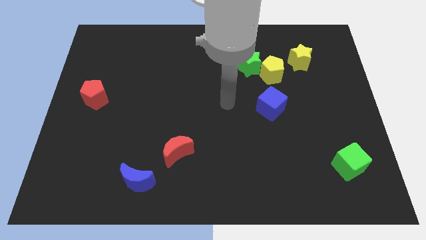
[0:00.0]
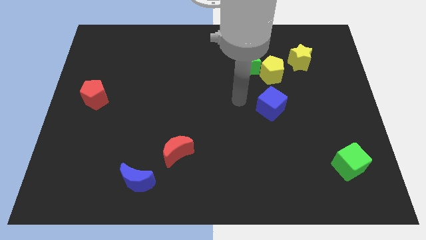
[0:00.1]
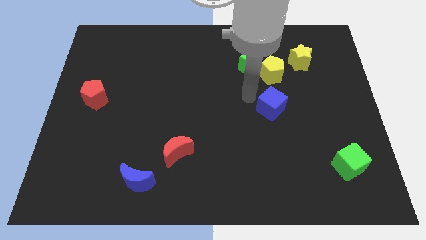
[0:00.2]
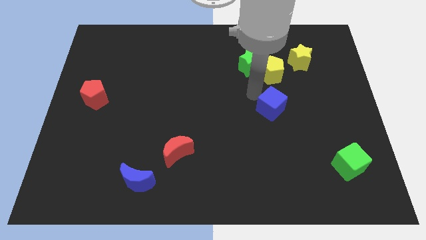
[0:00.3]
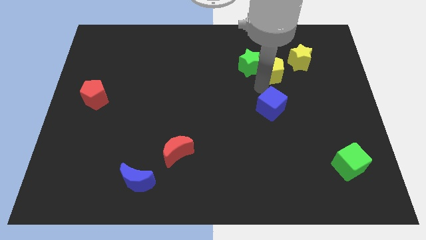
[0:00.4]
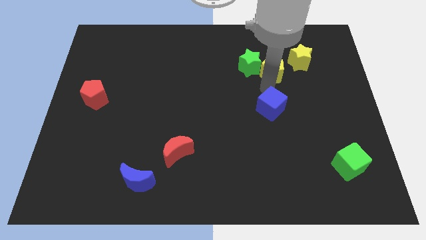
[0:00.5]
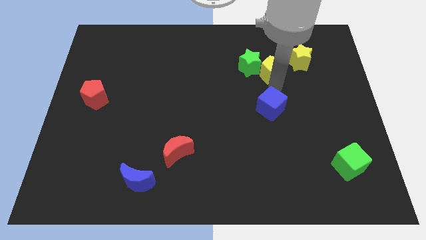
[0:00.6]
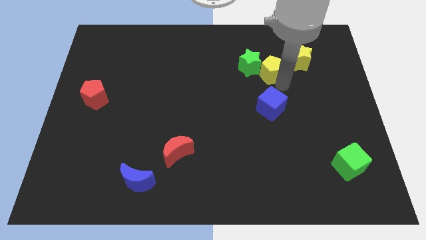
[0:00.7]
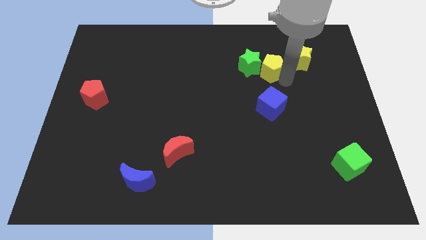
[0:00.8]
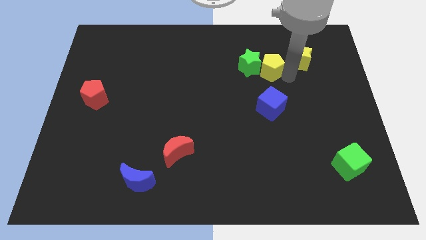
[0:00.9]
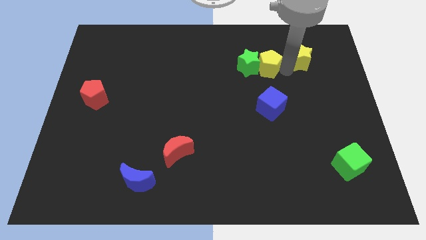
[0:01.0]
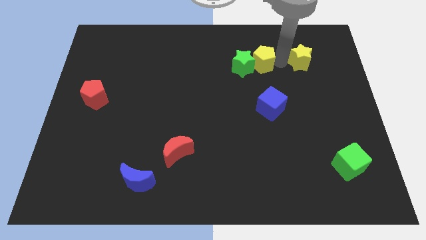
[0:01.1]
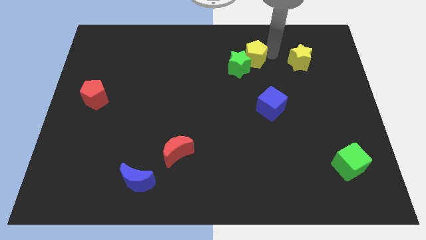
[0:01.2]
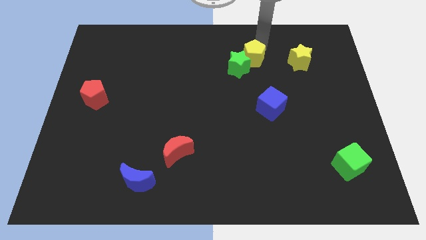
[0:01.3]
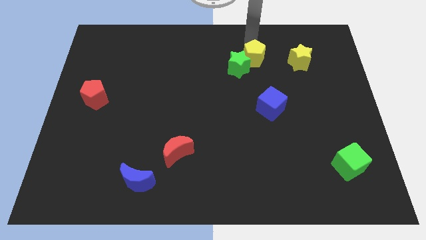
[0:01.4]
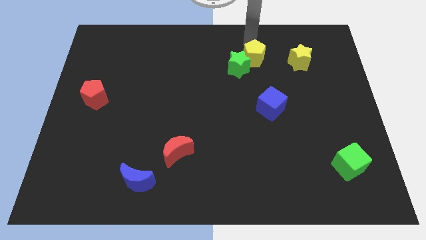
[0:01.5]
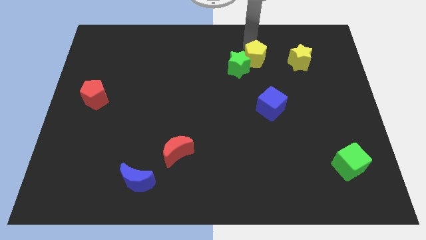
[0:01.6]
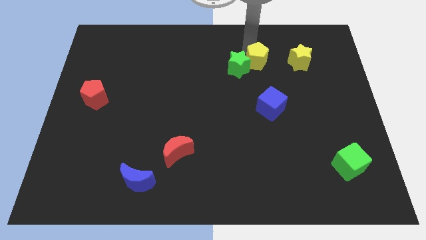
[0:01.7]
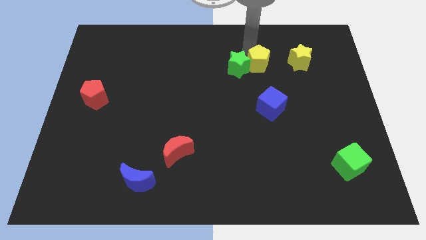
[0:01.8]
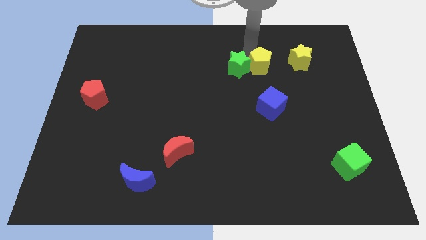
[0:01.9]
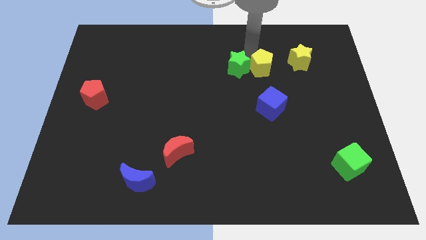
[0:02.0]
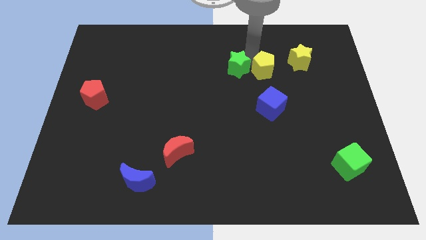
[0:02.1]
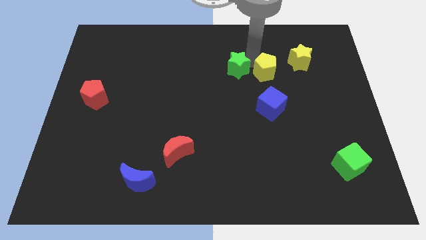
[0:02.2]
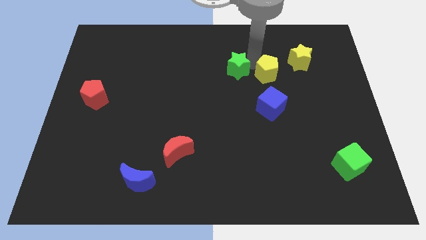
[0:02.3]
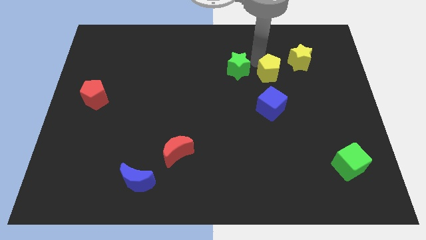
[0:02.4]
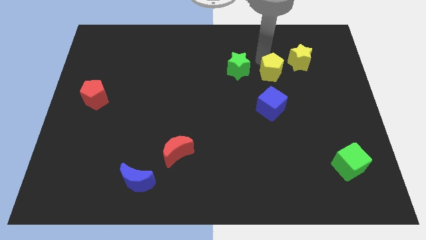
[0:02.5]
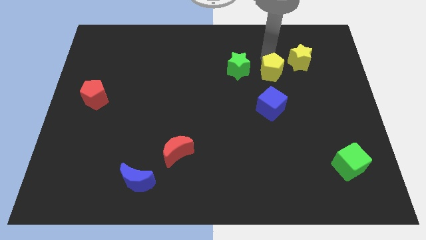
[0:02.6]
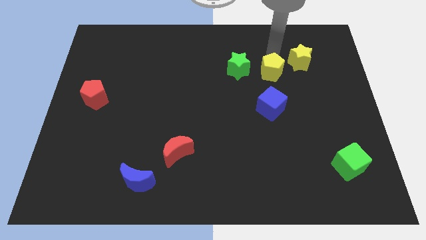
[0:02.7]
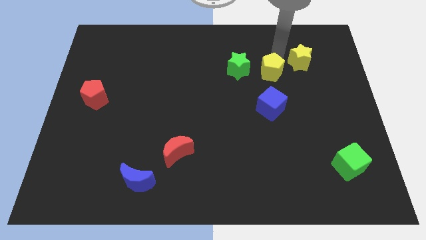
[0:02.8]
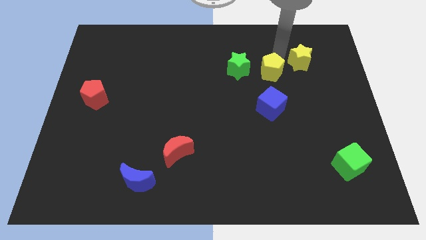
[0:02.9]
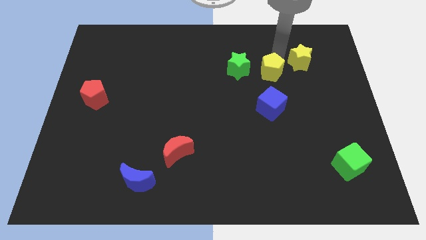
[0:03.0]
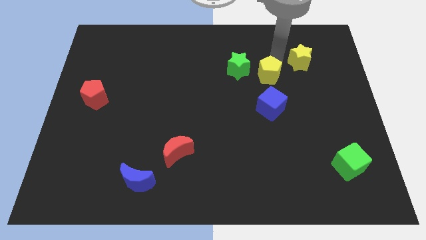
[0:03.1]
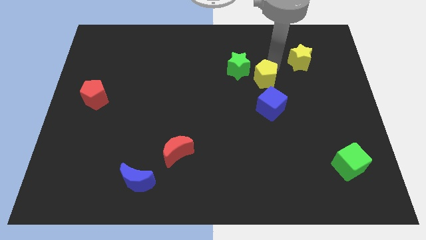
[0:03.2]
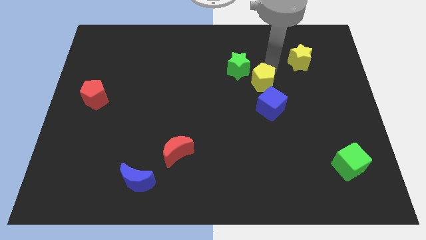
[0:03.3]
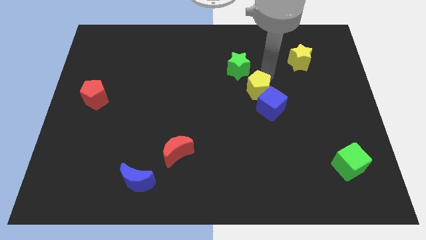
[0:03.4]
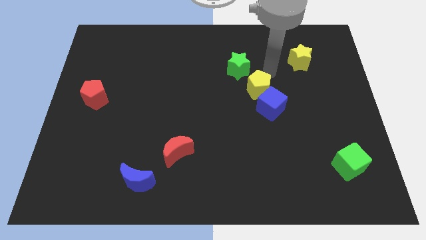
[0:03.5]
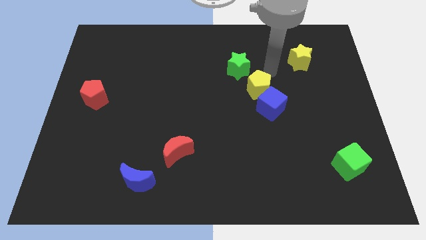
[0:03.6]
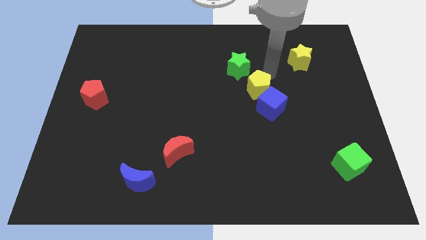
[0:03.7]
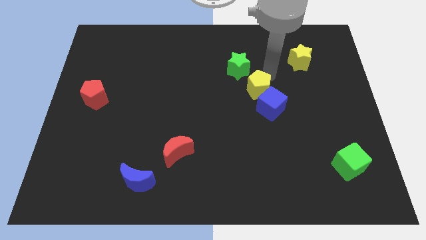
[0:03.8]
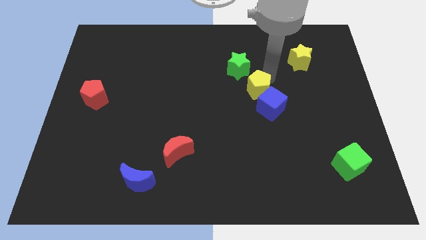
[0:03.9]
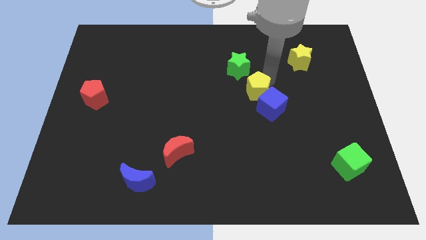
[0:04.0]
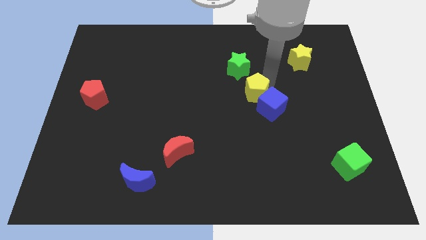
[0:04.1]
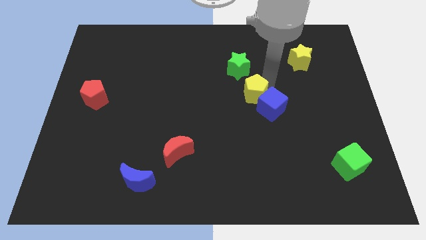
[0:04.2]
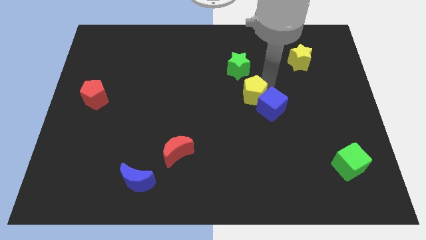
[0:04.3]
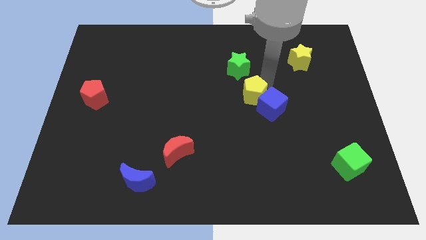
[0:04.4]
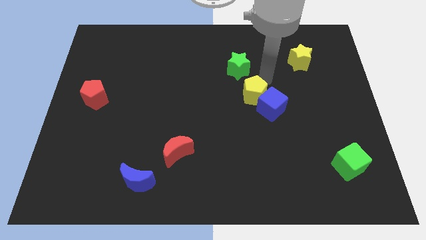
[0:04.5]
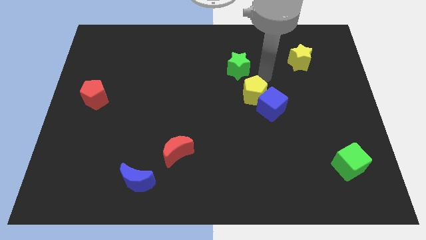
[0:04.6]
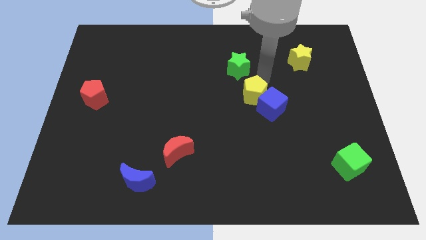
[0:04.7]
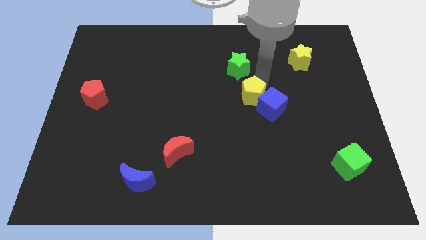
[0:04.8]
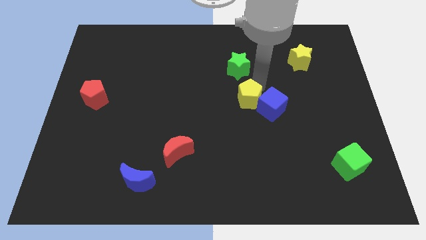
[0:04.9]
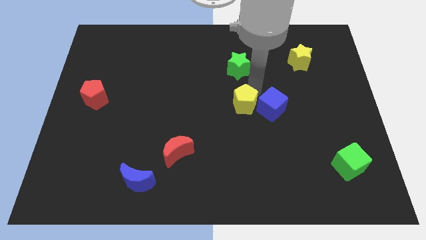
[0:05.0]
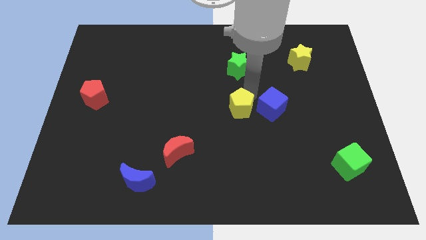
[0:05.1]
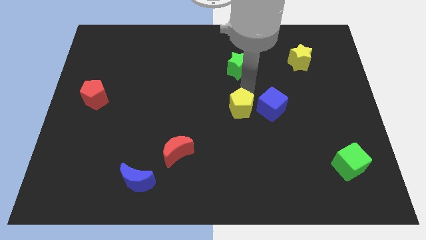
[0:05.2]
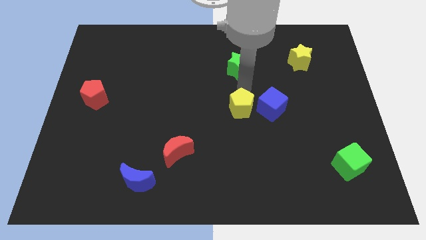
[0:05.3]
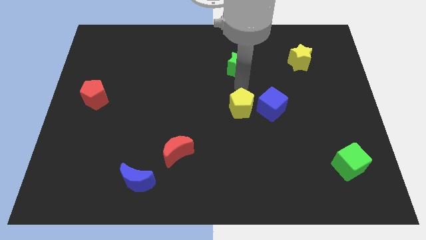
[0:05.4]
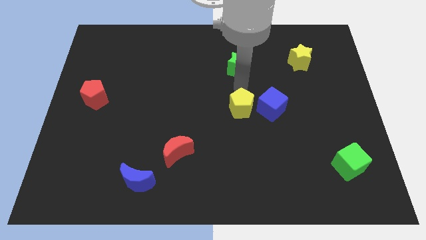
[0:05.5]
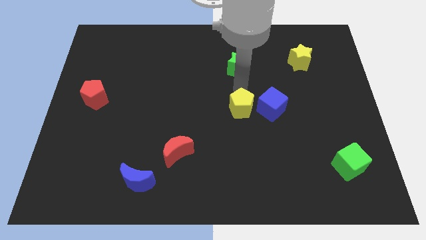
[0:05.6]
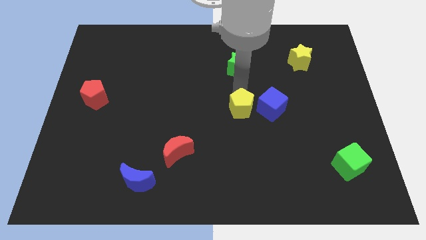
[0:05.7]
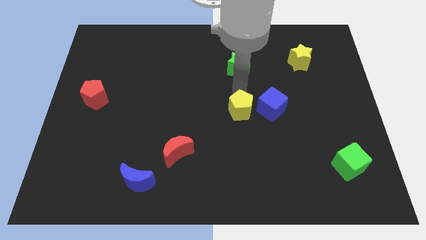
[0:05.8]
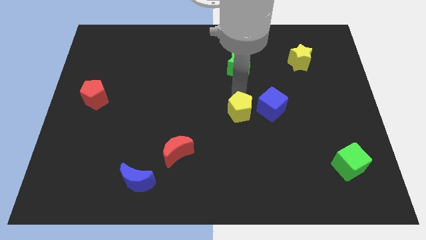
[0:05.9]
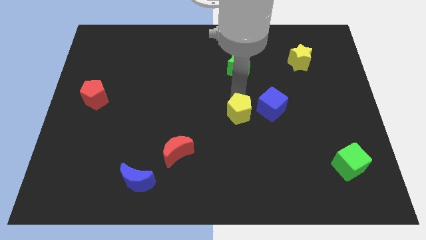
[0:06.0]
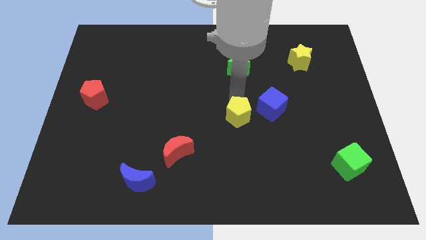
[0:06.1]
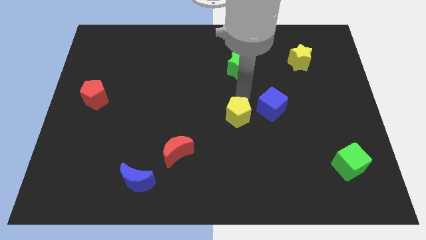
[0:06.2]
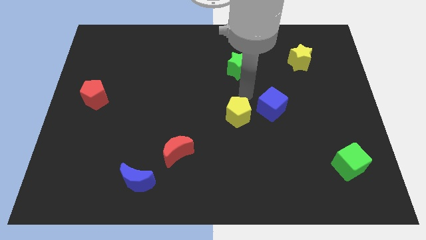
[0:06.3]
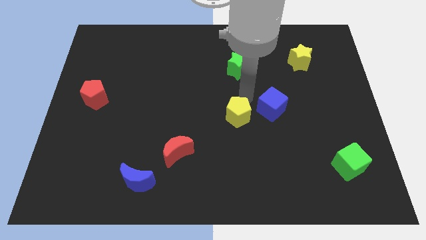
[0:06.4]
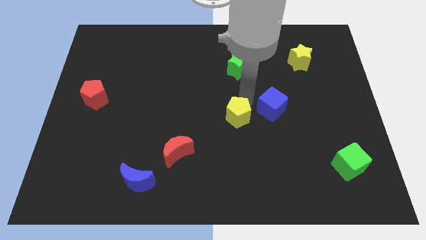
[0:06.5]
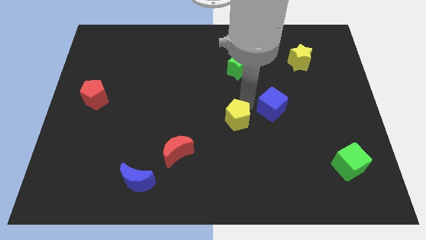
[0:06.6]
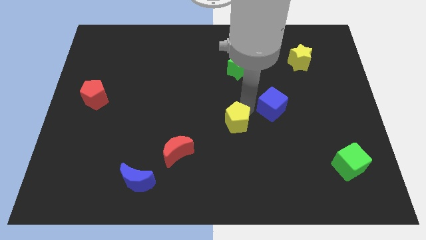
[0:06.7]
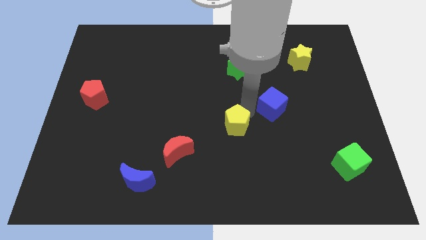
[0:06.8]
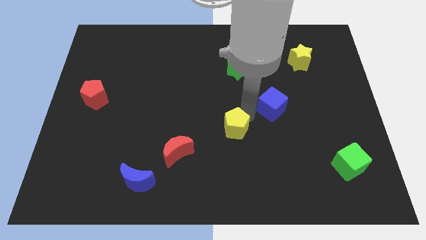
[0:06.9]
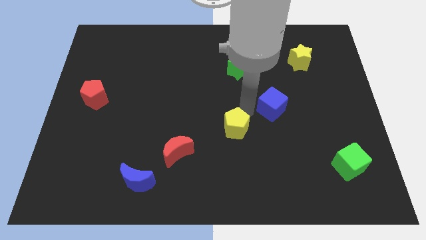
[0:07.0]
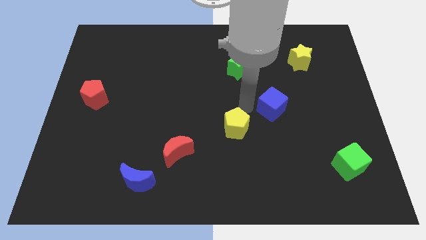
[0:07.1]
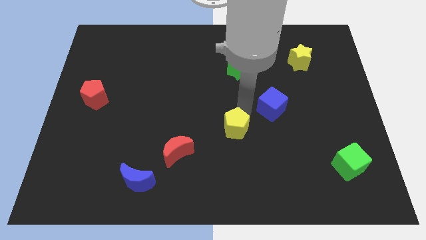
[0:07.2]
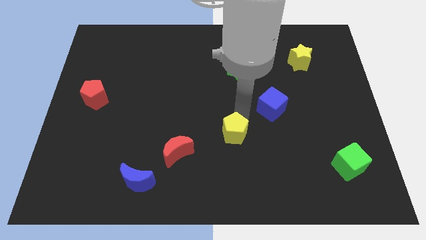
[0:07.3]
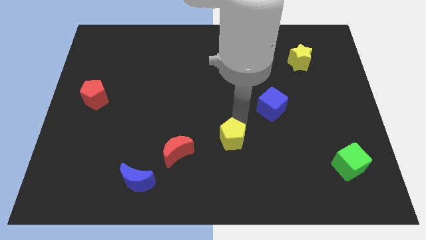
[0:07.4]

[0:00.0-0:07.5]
push the yellow pentagon to the right side of the red moon
